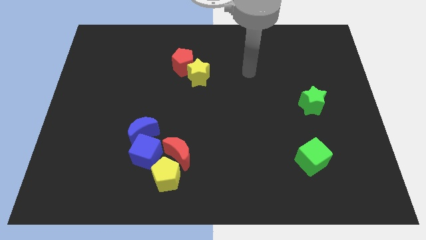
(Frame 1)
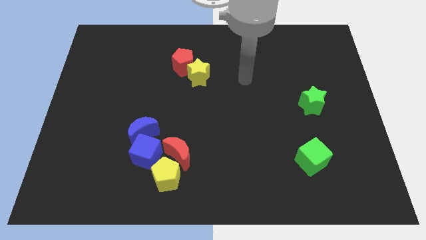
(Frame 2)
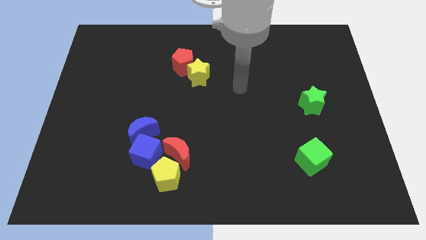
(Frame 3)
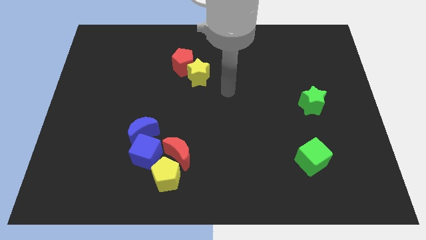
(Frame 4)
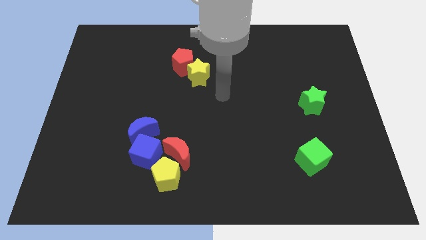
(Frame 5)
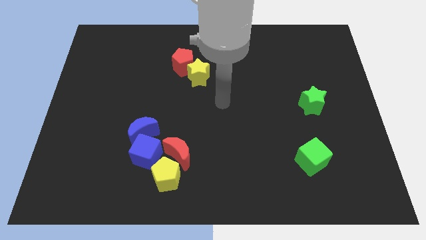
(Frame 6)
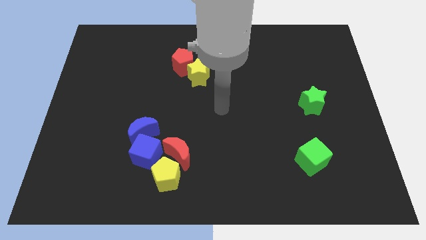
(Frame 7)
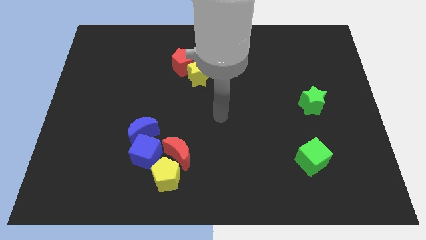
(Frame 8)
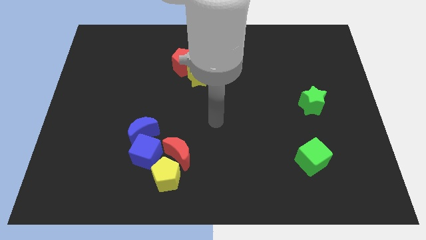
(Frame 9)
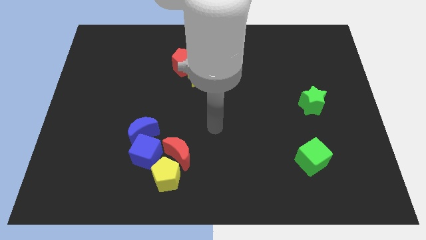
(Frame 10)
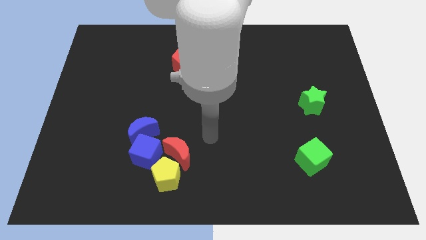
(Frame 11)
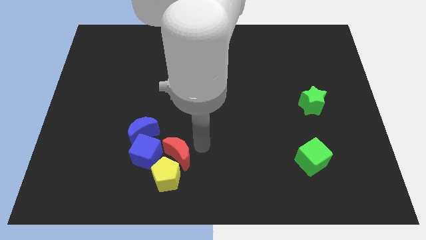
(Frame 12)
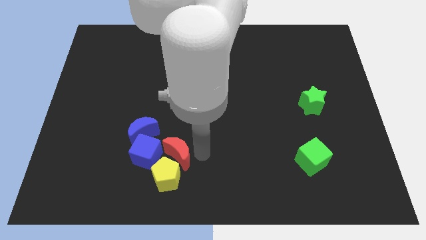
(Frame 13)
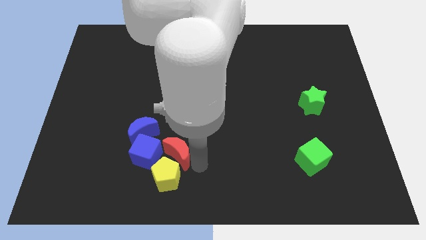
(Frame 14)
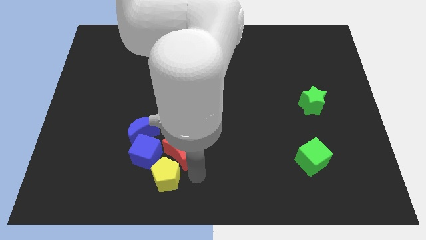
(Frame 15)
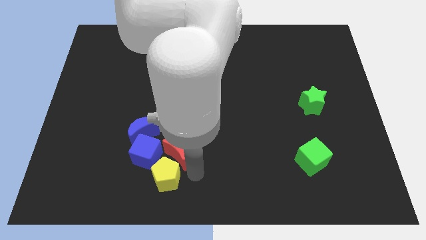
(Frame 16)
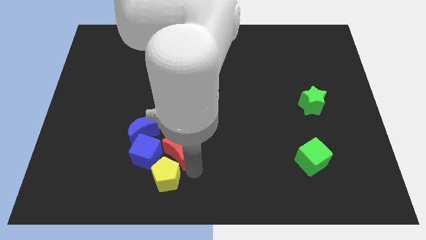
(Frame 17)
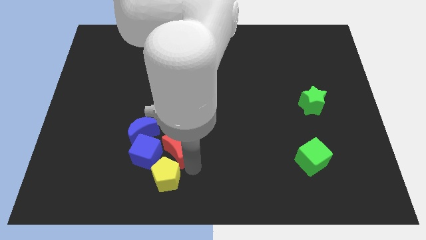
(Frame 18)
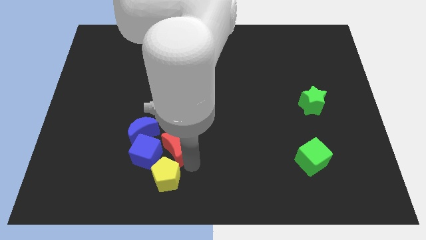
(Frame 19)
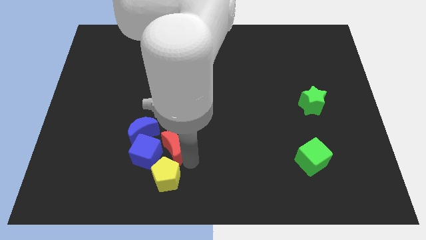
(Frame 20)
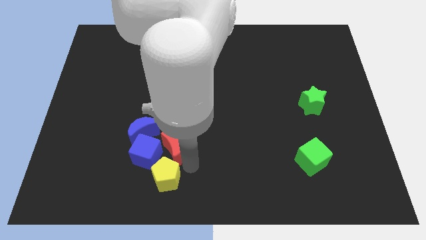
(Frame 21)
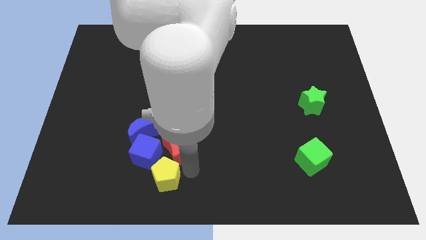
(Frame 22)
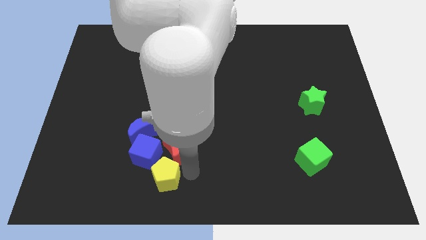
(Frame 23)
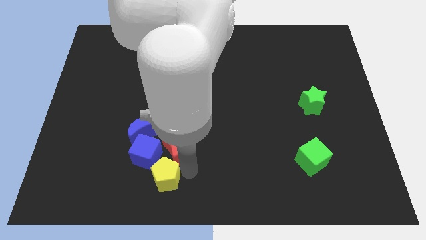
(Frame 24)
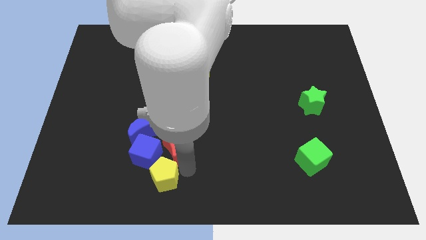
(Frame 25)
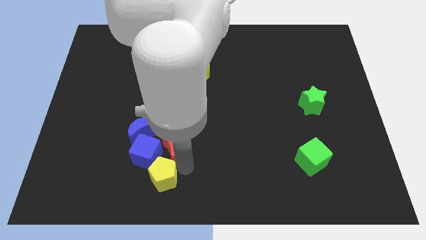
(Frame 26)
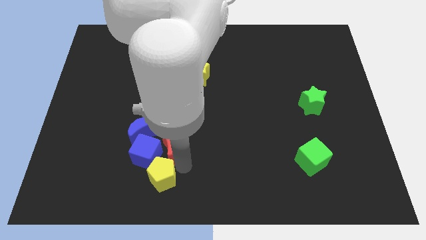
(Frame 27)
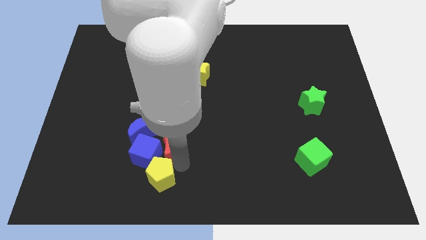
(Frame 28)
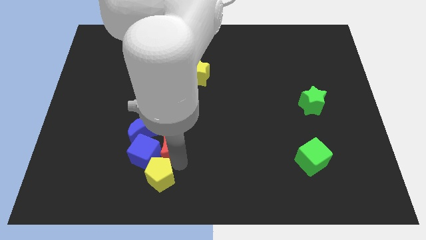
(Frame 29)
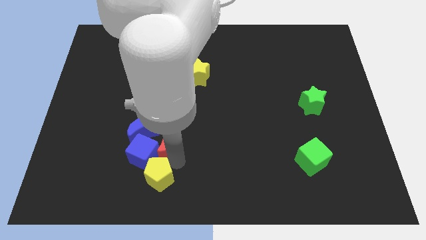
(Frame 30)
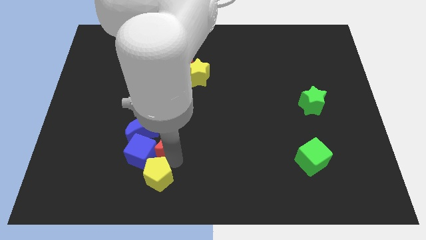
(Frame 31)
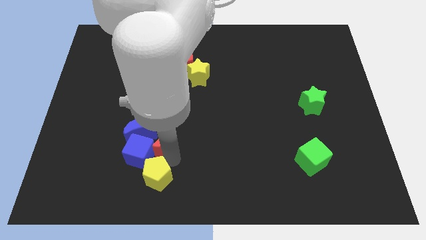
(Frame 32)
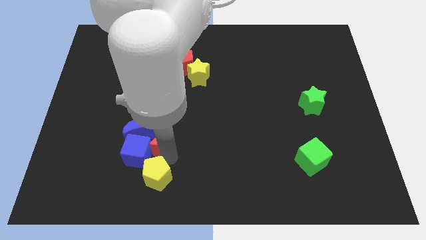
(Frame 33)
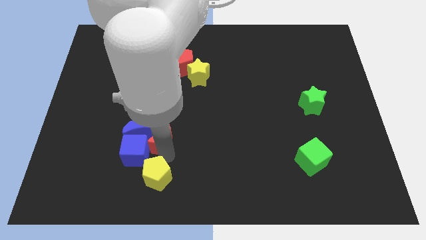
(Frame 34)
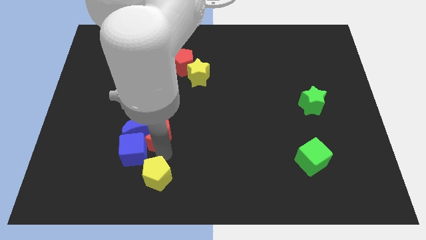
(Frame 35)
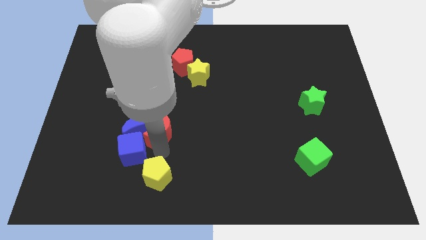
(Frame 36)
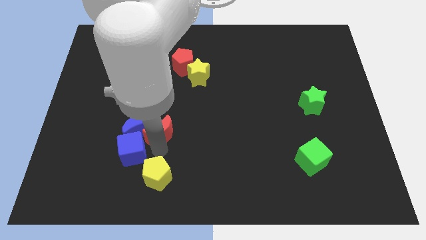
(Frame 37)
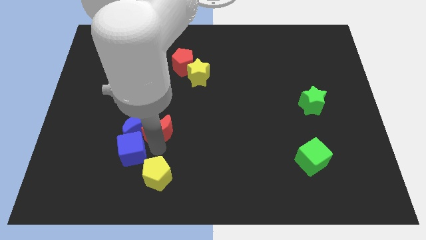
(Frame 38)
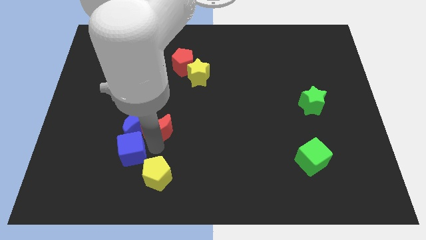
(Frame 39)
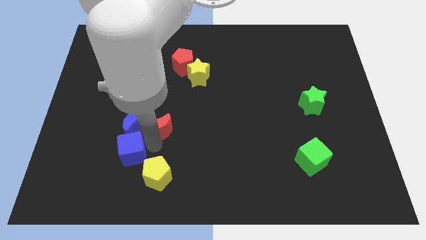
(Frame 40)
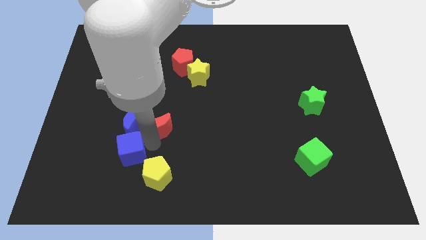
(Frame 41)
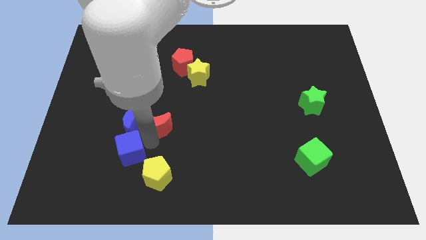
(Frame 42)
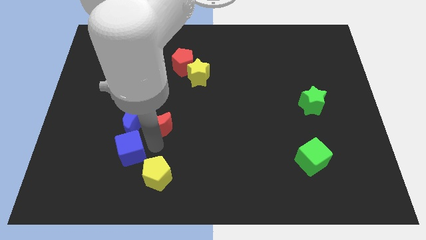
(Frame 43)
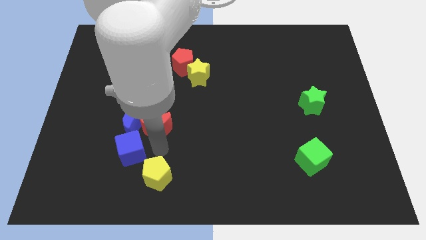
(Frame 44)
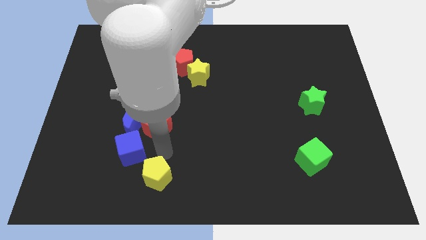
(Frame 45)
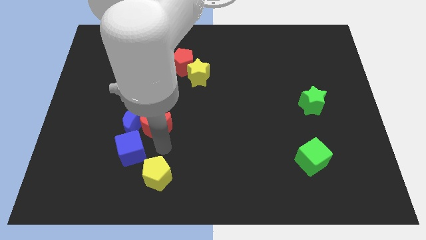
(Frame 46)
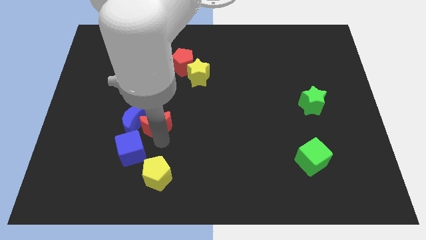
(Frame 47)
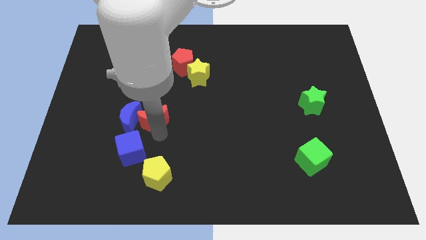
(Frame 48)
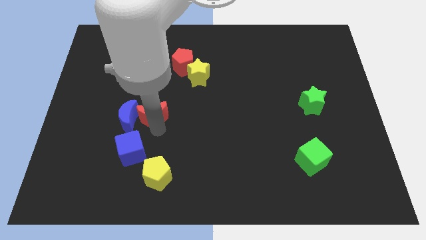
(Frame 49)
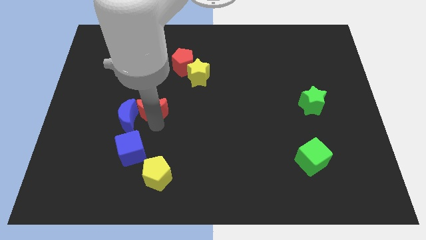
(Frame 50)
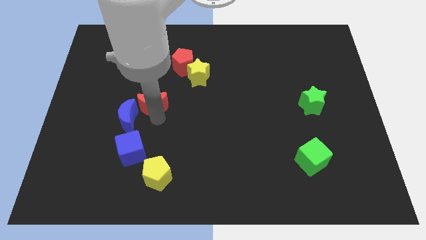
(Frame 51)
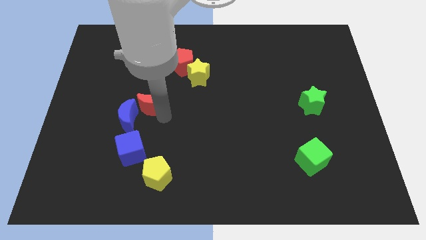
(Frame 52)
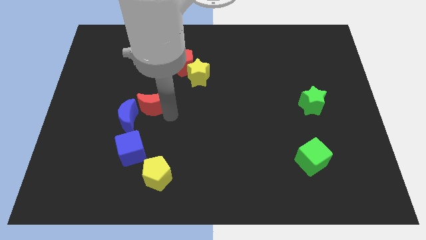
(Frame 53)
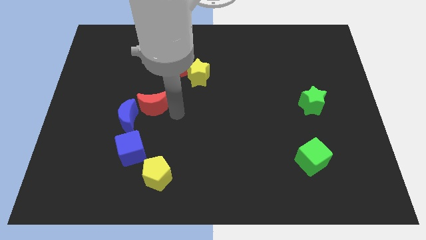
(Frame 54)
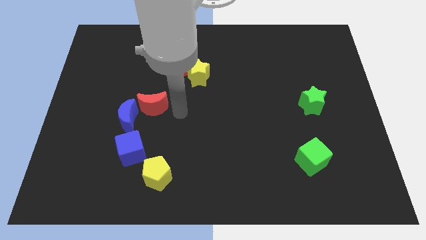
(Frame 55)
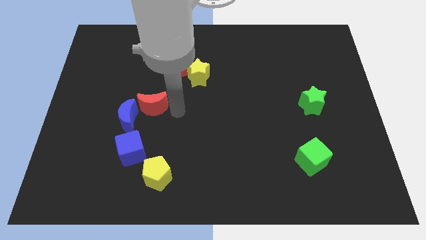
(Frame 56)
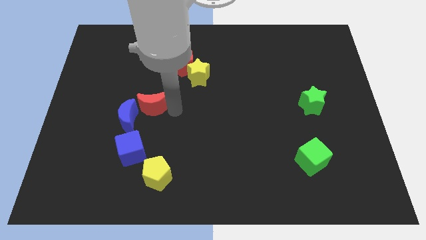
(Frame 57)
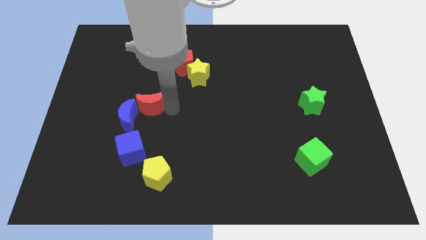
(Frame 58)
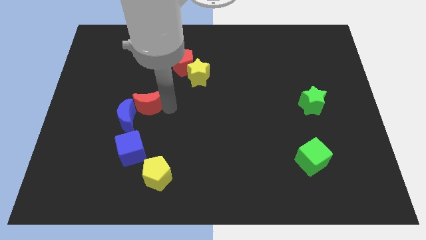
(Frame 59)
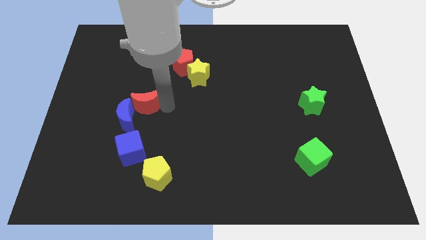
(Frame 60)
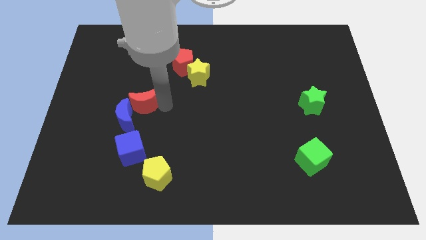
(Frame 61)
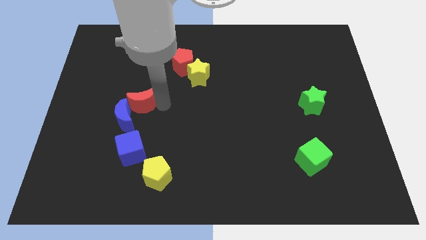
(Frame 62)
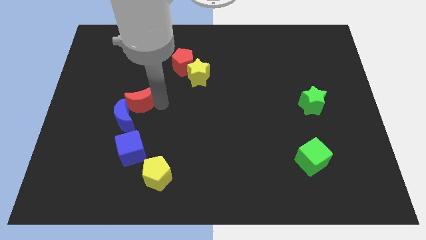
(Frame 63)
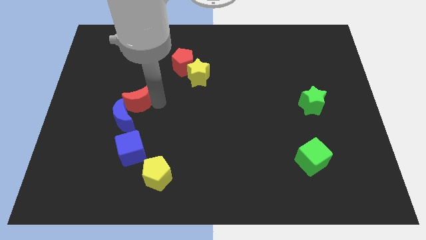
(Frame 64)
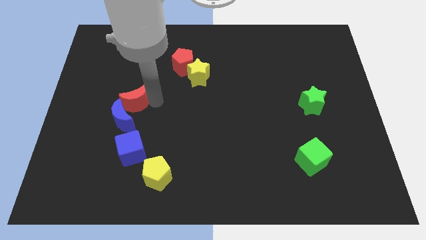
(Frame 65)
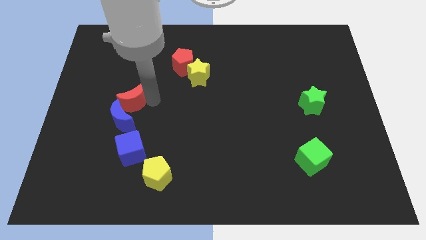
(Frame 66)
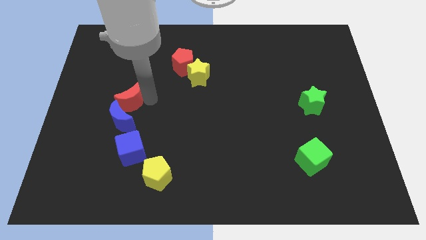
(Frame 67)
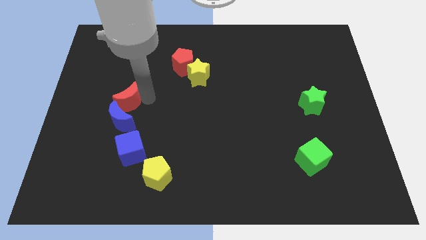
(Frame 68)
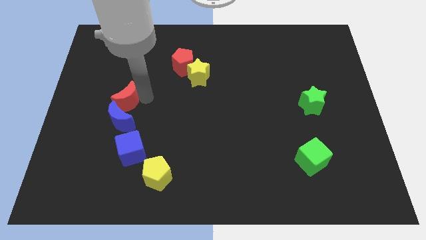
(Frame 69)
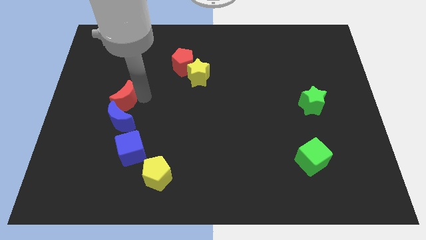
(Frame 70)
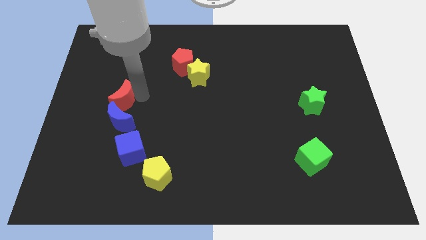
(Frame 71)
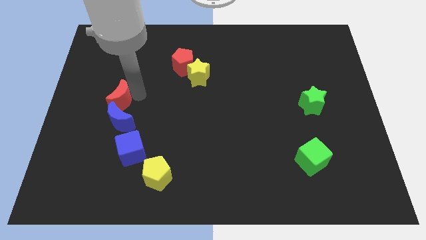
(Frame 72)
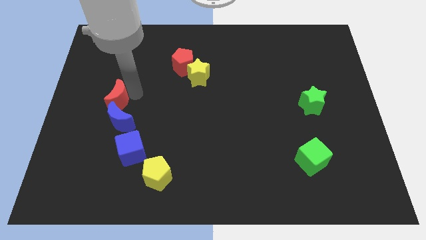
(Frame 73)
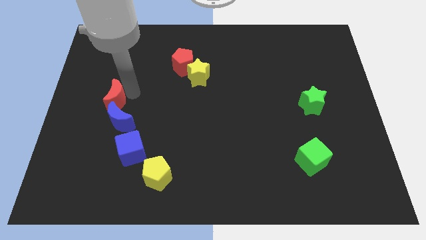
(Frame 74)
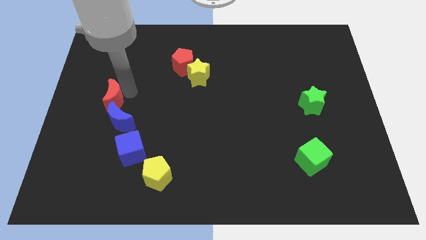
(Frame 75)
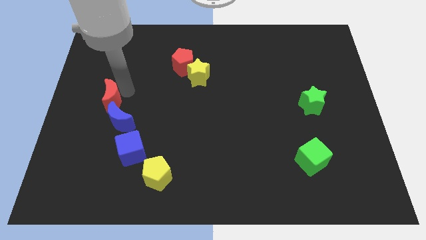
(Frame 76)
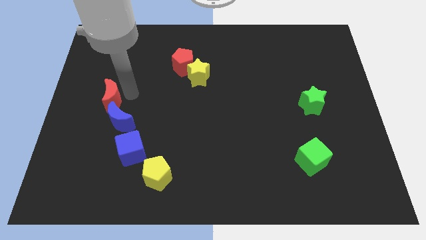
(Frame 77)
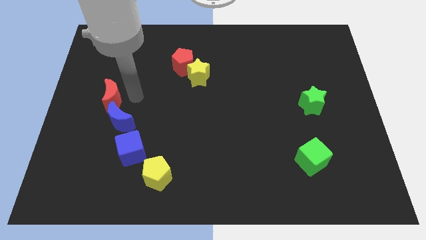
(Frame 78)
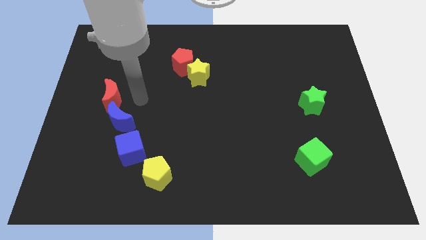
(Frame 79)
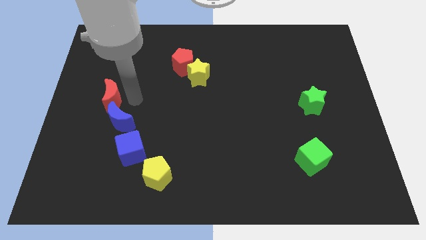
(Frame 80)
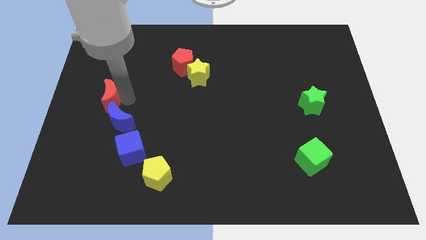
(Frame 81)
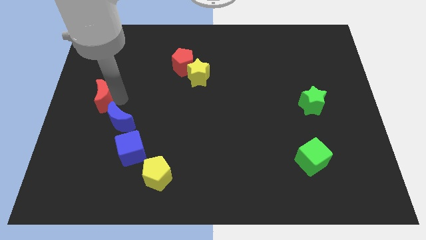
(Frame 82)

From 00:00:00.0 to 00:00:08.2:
push the red moon to the center left
